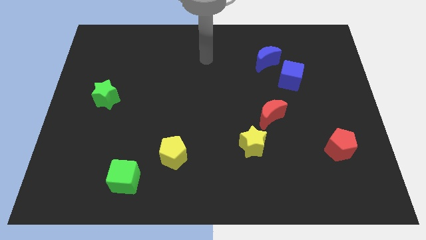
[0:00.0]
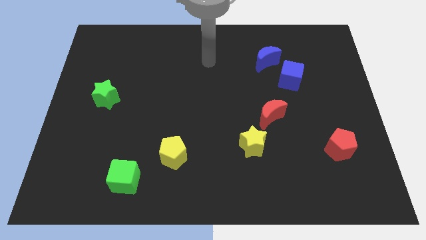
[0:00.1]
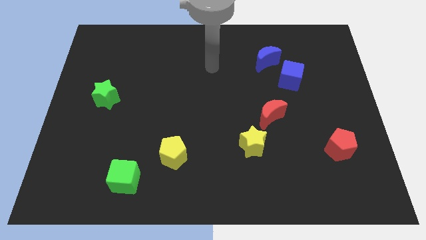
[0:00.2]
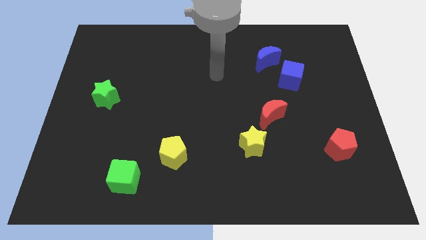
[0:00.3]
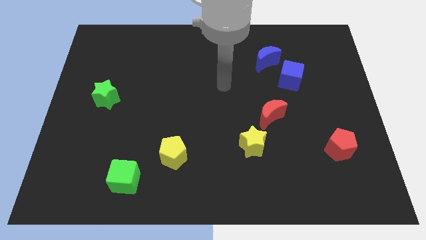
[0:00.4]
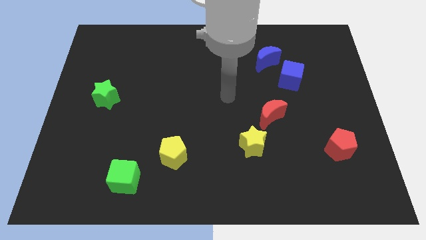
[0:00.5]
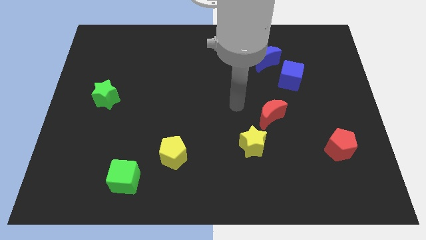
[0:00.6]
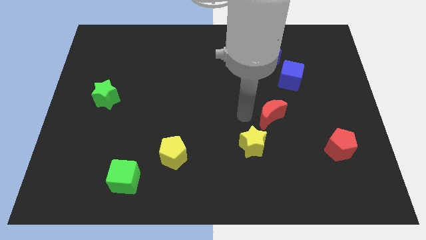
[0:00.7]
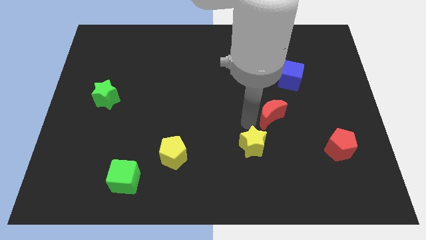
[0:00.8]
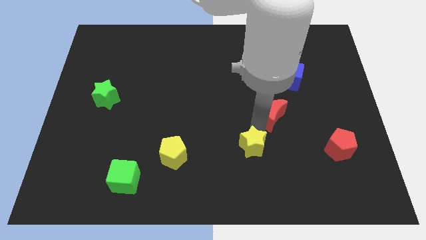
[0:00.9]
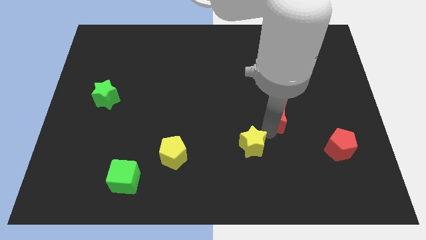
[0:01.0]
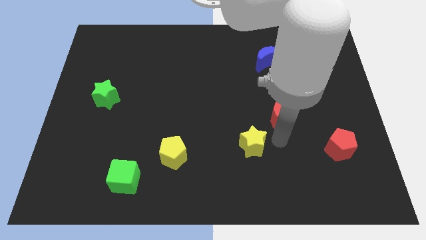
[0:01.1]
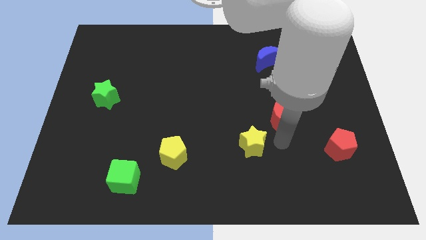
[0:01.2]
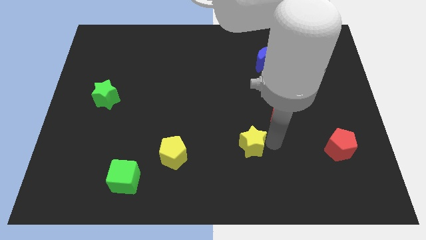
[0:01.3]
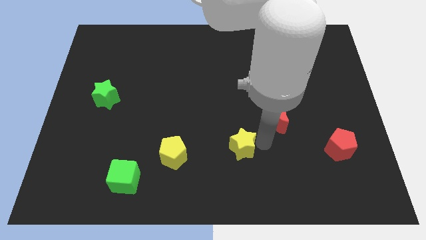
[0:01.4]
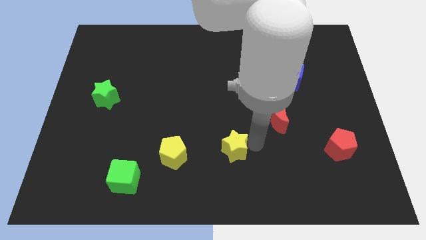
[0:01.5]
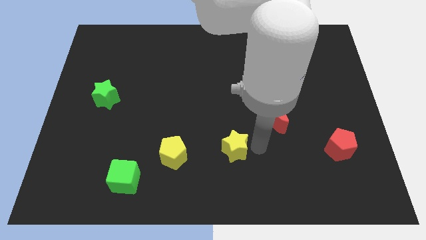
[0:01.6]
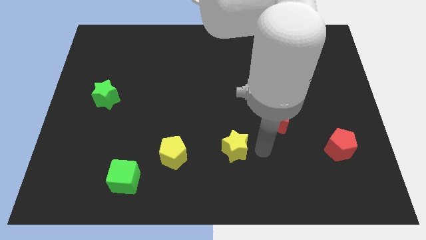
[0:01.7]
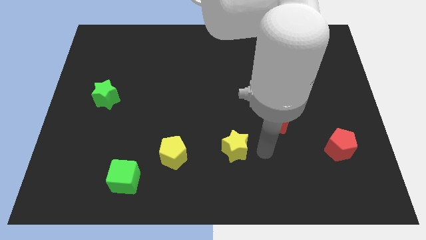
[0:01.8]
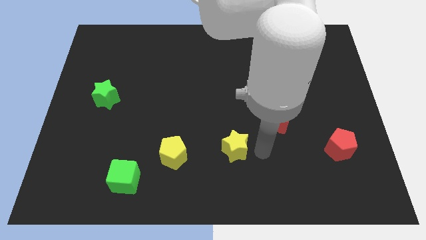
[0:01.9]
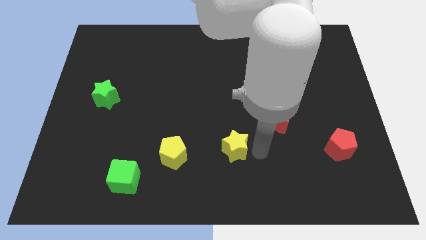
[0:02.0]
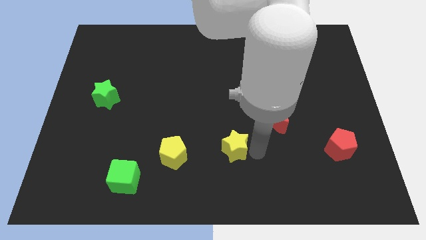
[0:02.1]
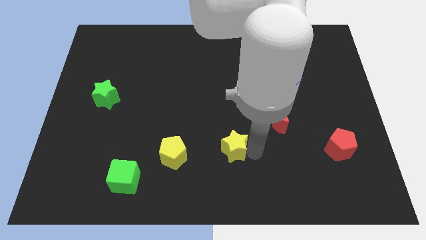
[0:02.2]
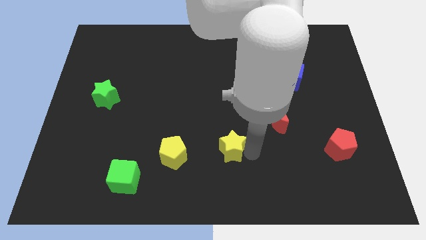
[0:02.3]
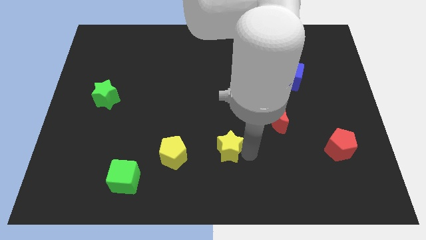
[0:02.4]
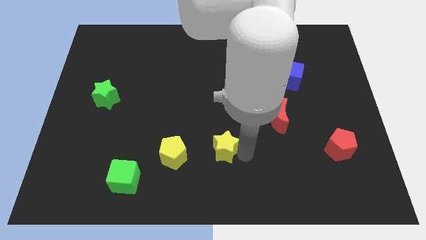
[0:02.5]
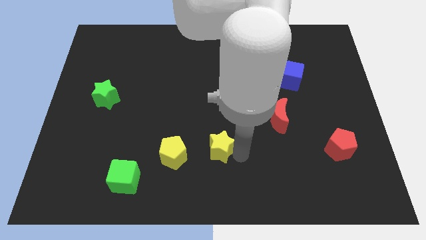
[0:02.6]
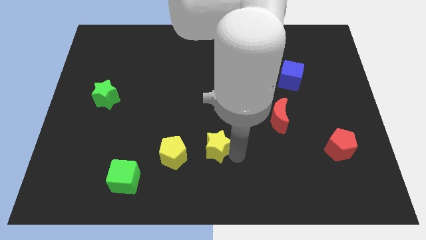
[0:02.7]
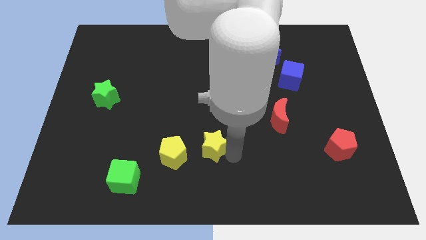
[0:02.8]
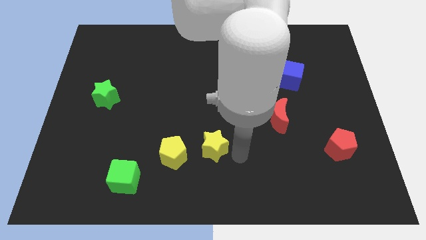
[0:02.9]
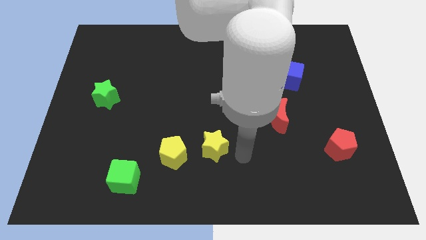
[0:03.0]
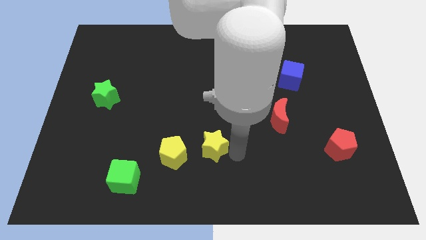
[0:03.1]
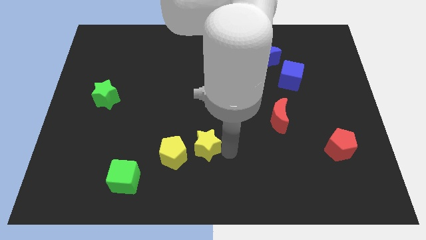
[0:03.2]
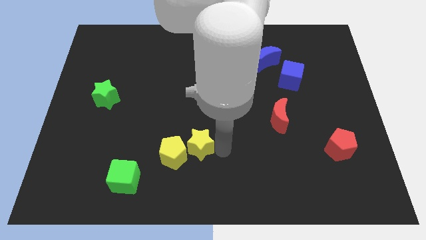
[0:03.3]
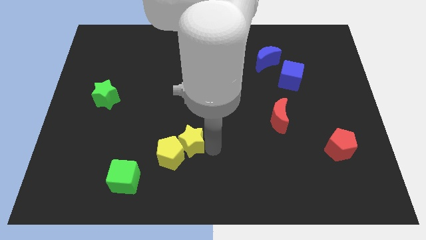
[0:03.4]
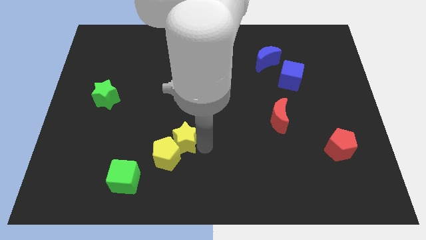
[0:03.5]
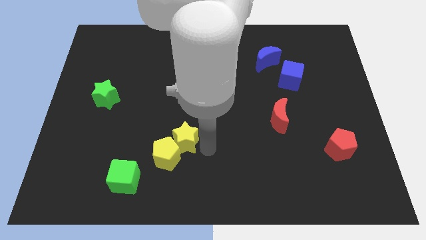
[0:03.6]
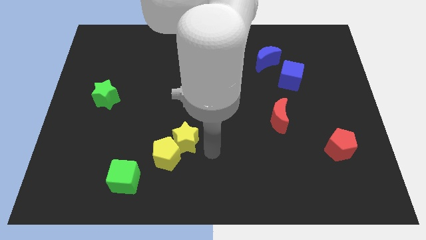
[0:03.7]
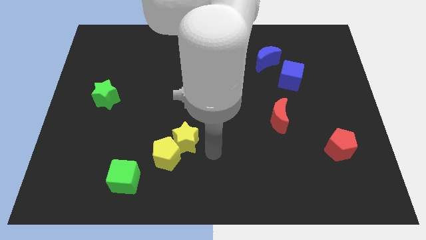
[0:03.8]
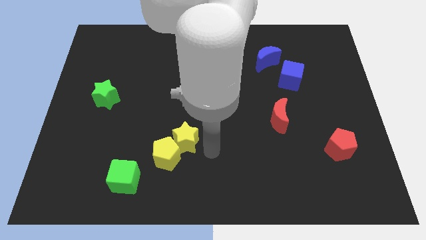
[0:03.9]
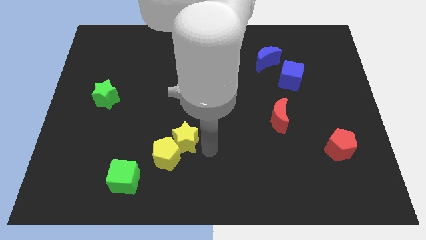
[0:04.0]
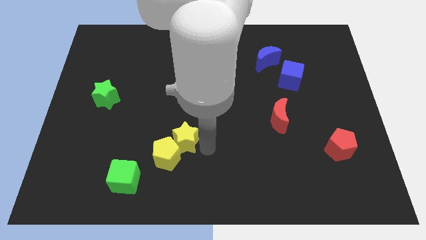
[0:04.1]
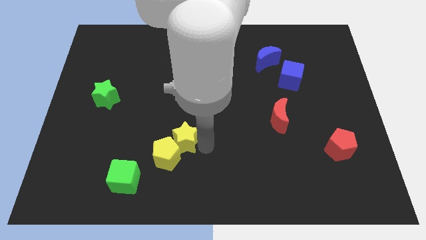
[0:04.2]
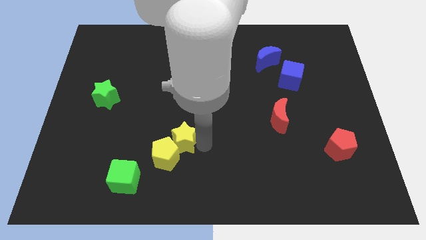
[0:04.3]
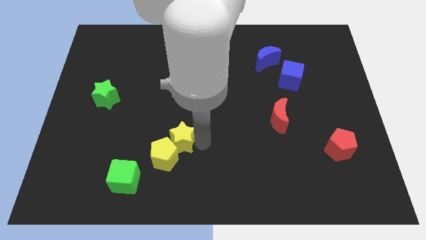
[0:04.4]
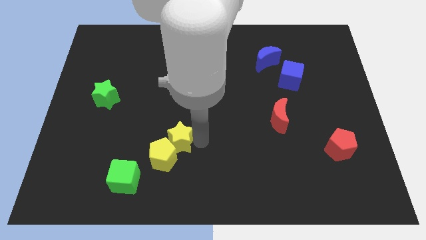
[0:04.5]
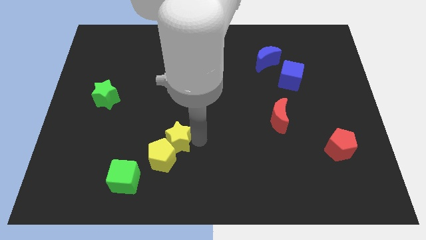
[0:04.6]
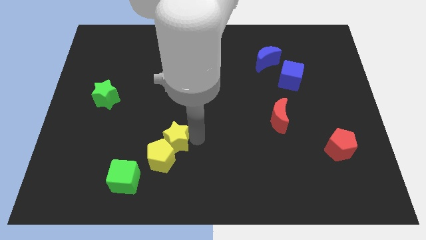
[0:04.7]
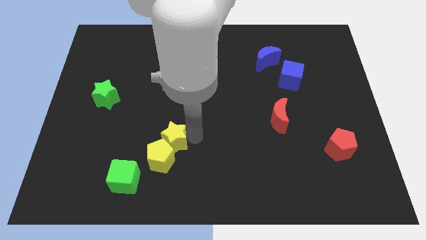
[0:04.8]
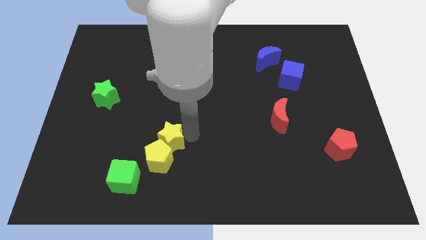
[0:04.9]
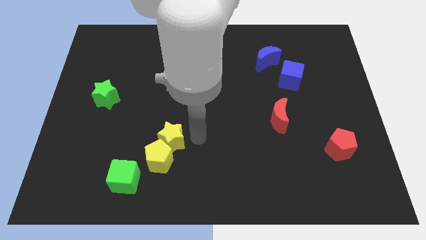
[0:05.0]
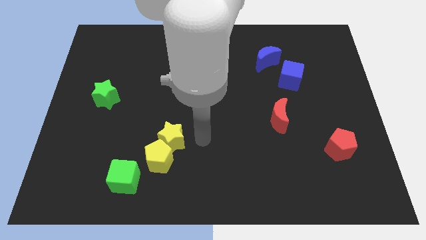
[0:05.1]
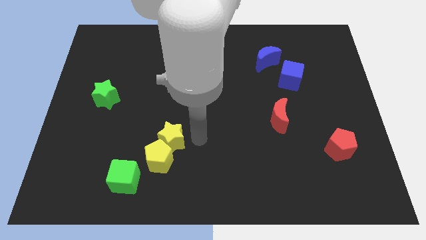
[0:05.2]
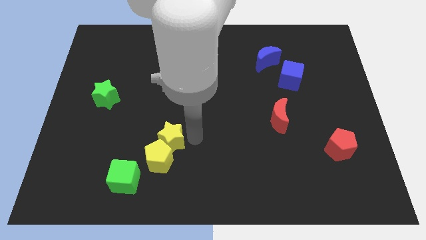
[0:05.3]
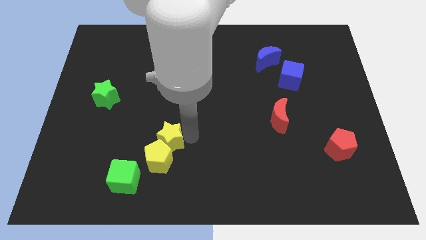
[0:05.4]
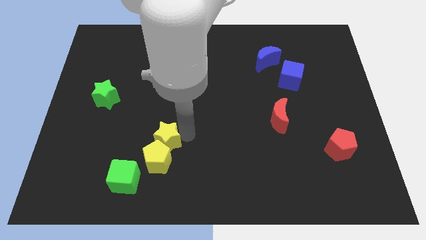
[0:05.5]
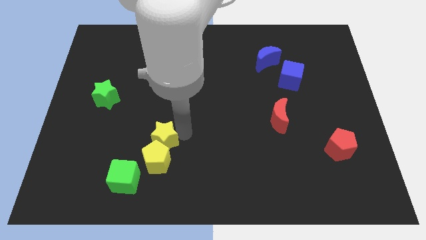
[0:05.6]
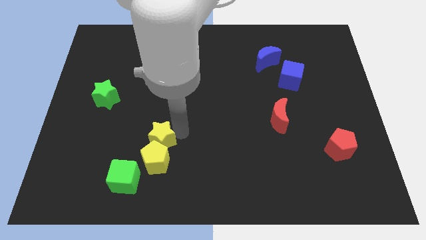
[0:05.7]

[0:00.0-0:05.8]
move the yellow star to the top left side of the yellow pentagon

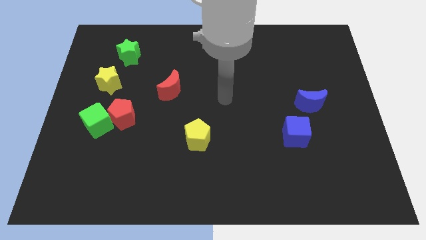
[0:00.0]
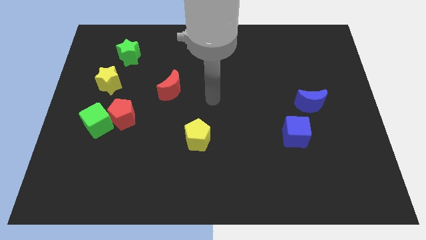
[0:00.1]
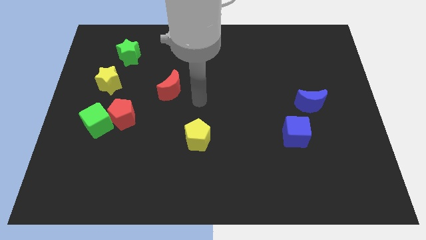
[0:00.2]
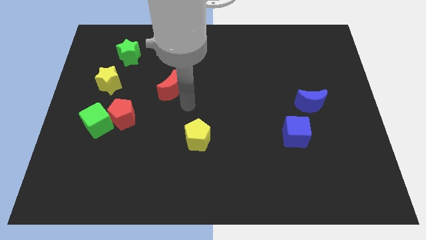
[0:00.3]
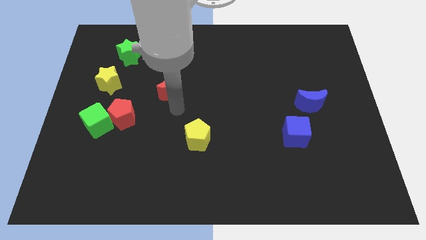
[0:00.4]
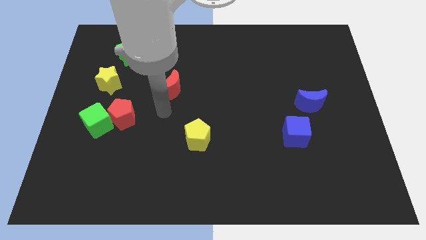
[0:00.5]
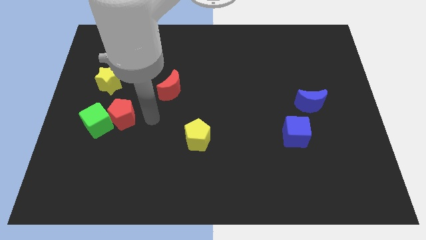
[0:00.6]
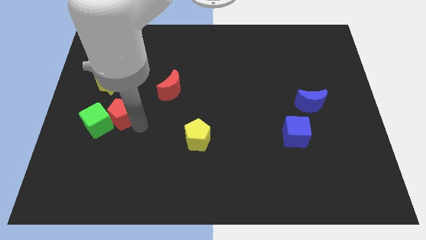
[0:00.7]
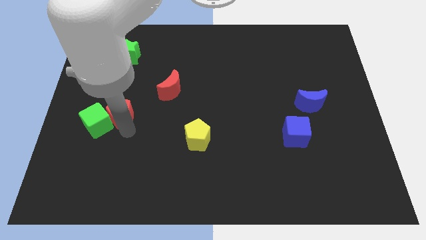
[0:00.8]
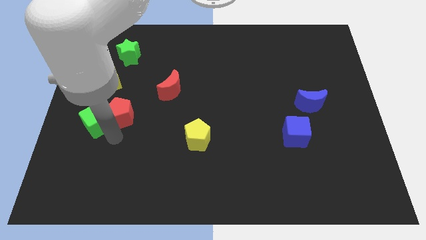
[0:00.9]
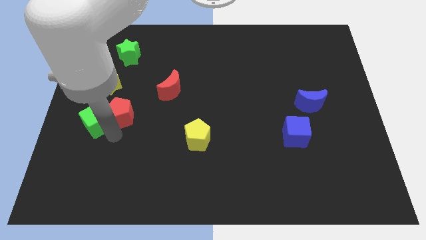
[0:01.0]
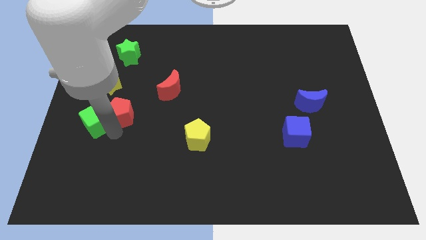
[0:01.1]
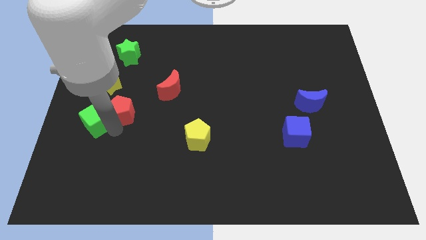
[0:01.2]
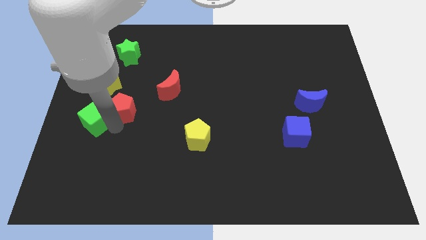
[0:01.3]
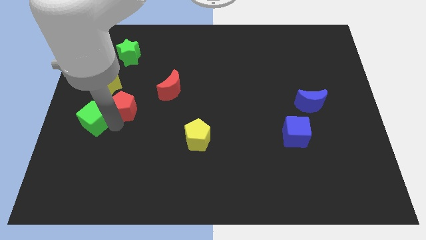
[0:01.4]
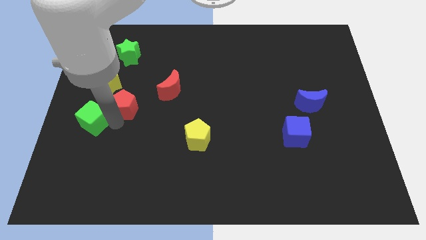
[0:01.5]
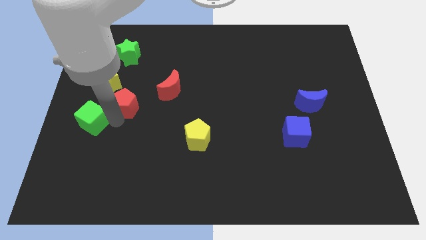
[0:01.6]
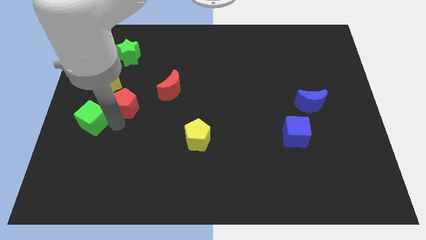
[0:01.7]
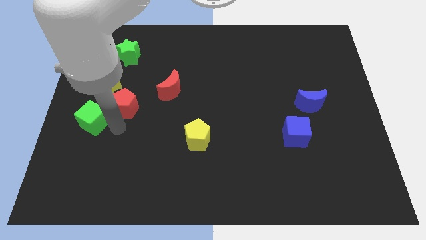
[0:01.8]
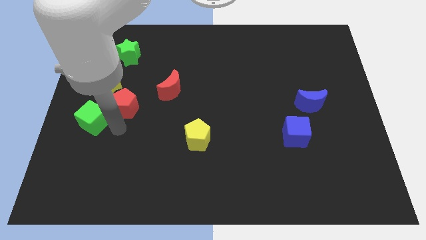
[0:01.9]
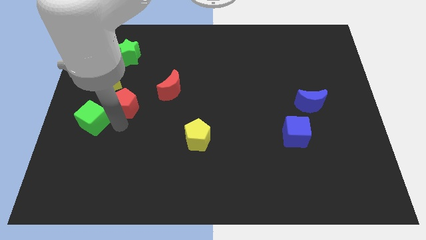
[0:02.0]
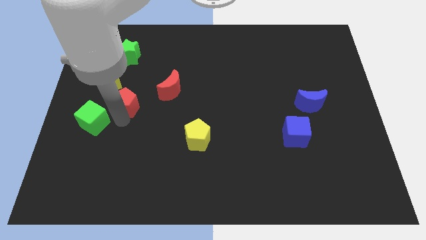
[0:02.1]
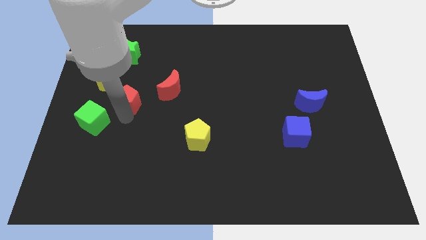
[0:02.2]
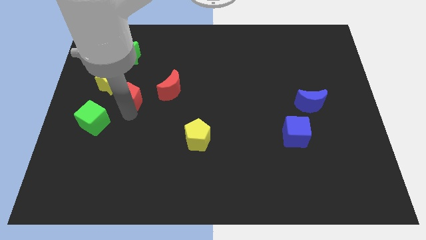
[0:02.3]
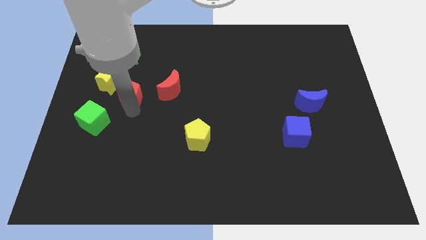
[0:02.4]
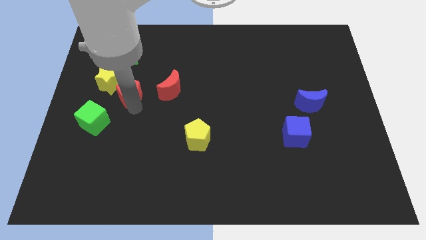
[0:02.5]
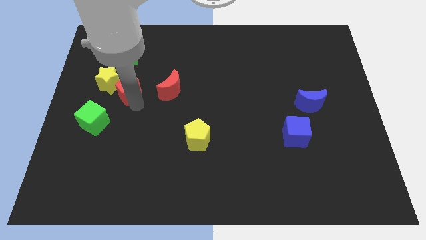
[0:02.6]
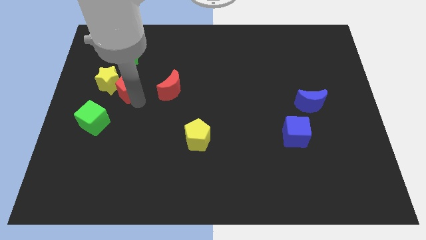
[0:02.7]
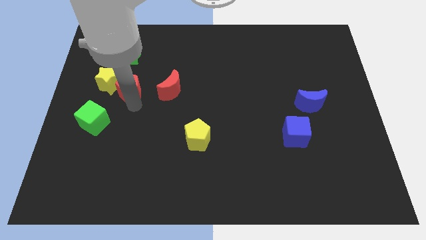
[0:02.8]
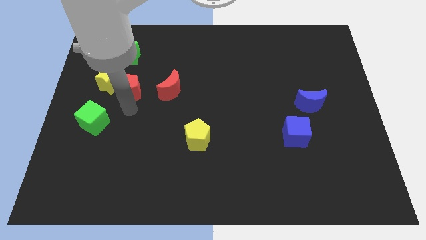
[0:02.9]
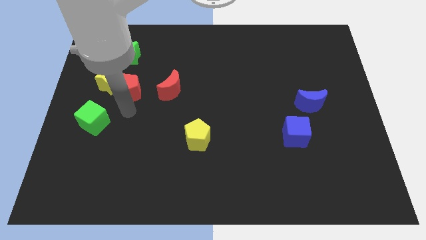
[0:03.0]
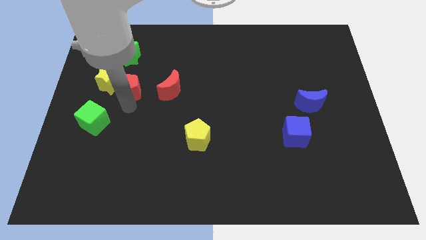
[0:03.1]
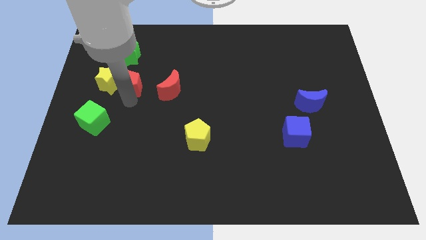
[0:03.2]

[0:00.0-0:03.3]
move the red pentagon diagonally up and to the right of the yellow star
